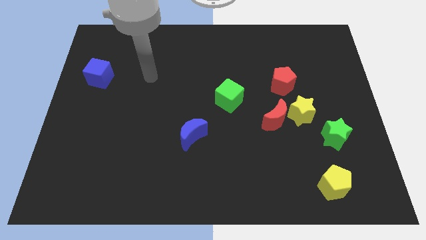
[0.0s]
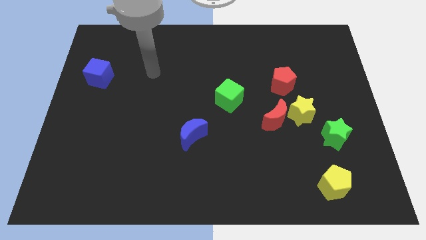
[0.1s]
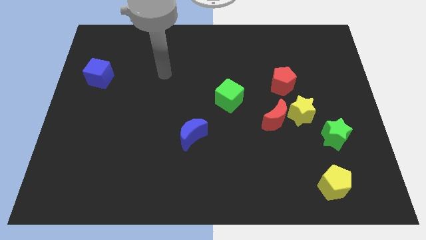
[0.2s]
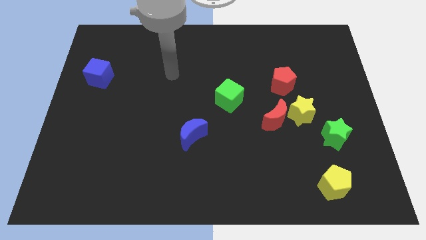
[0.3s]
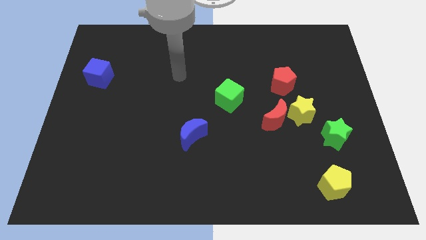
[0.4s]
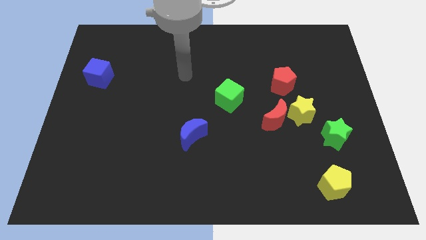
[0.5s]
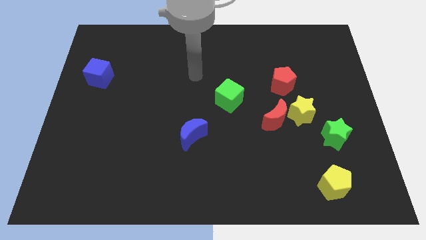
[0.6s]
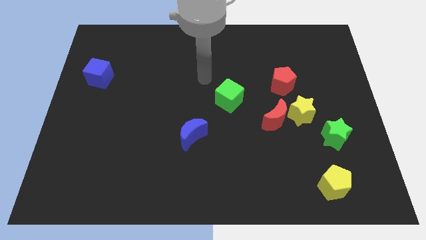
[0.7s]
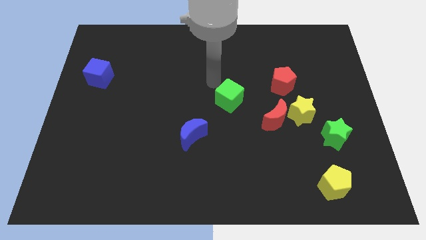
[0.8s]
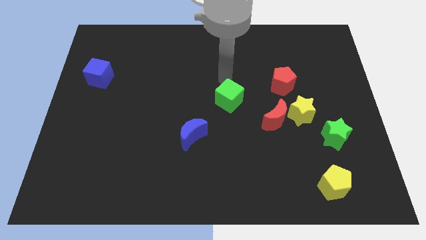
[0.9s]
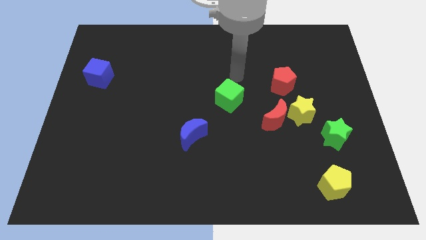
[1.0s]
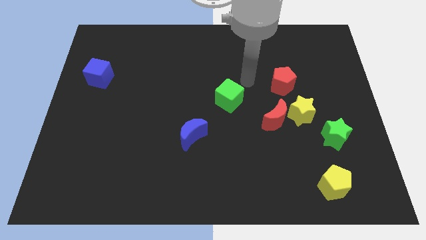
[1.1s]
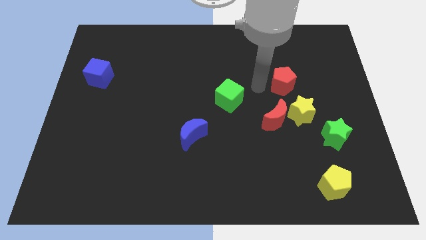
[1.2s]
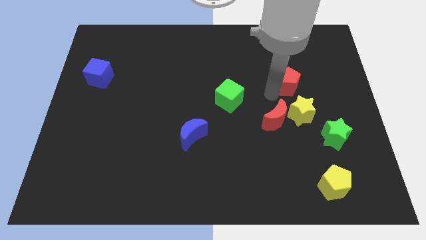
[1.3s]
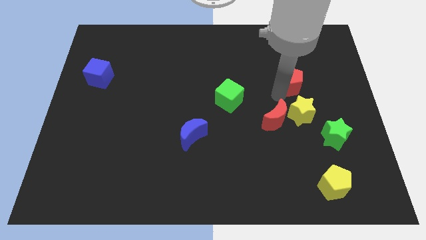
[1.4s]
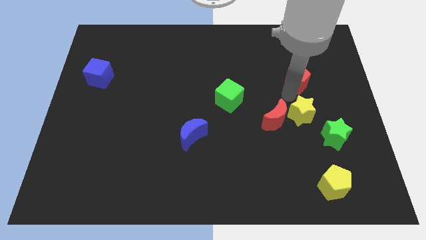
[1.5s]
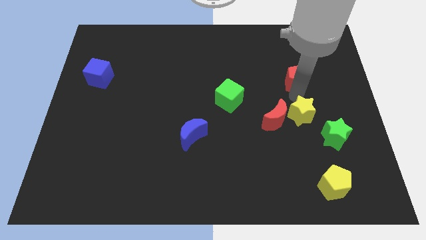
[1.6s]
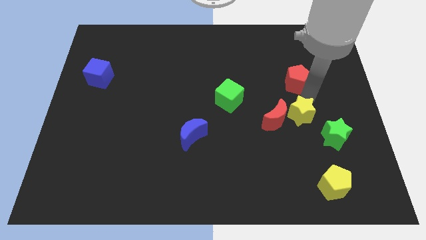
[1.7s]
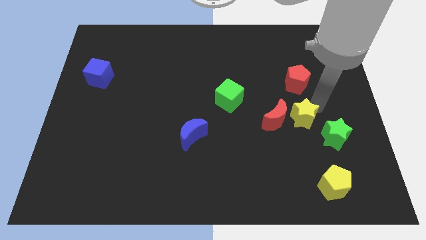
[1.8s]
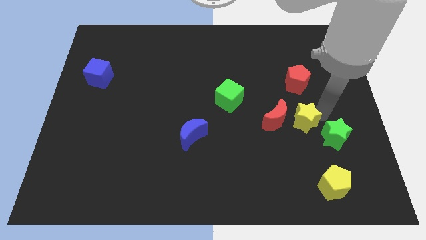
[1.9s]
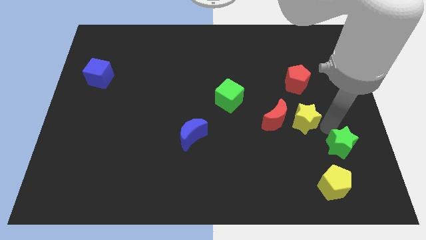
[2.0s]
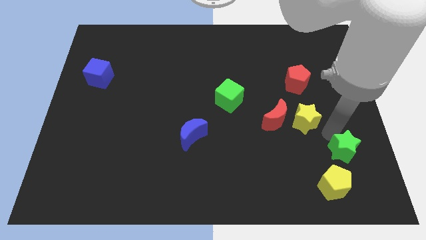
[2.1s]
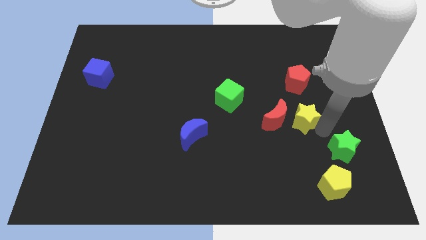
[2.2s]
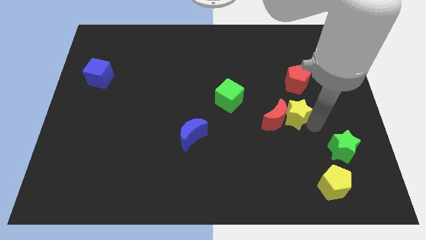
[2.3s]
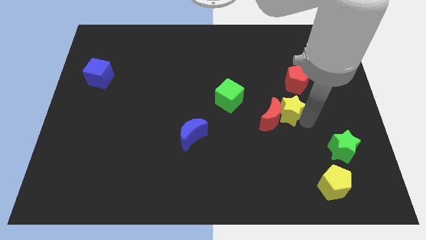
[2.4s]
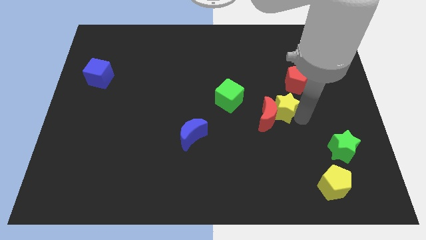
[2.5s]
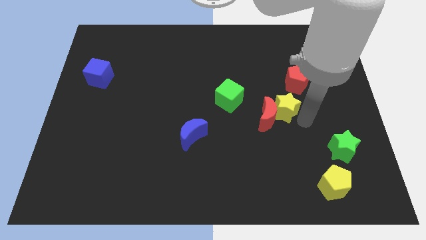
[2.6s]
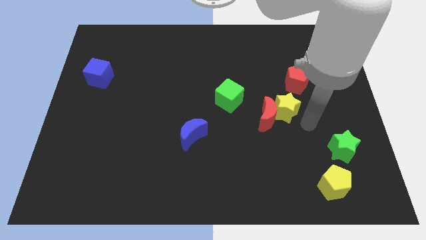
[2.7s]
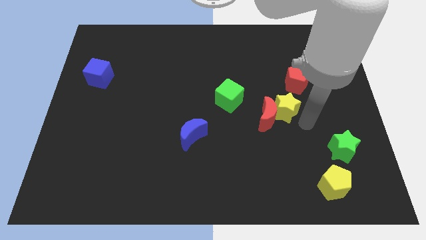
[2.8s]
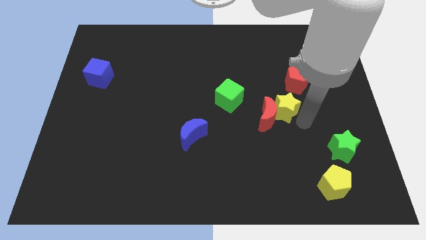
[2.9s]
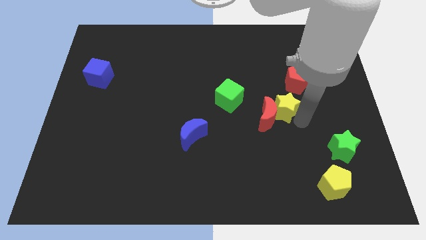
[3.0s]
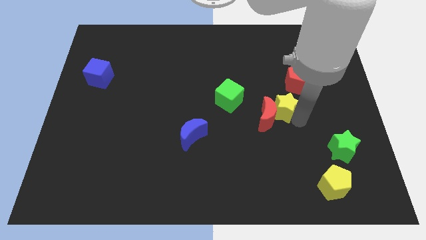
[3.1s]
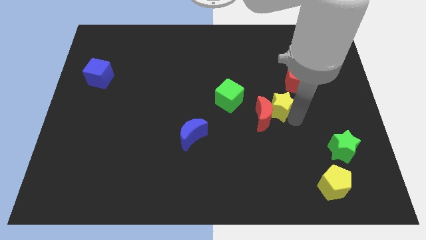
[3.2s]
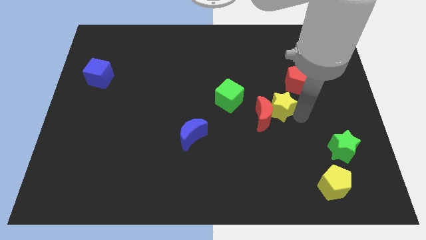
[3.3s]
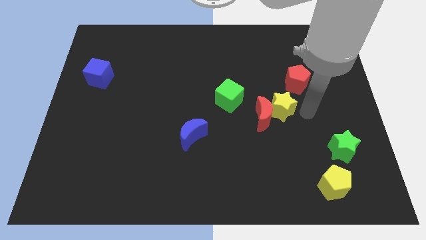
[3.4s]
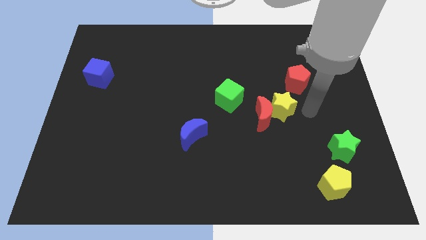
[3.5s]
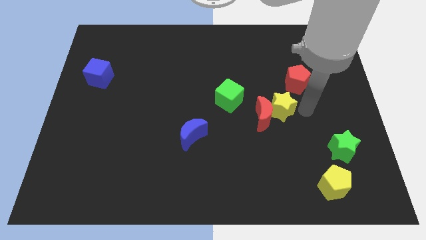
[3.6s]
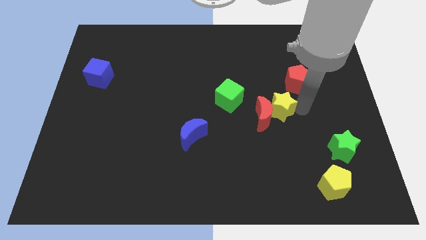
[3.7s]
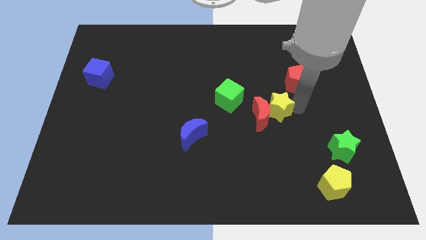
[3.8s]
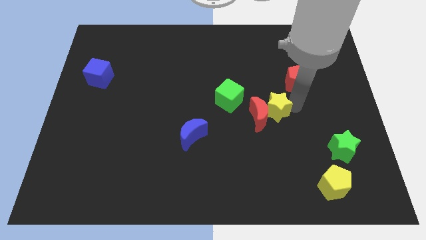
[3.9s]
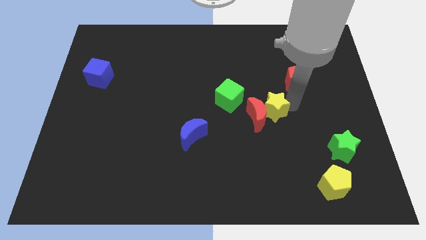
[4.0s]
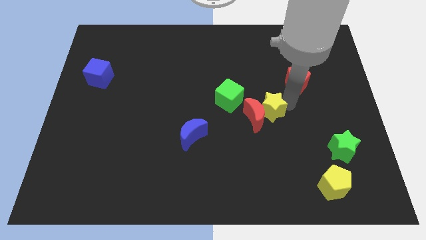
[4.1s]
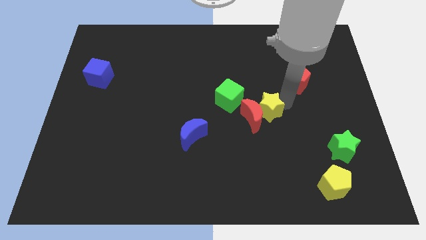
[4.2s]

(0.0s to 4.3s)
slightly slide the yellow star left

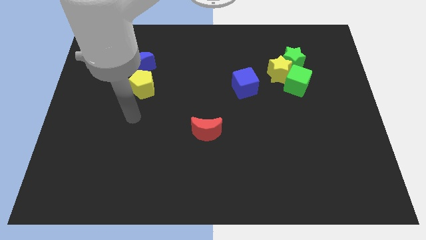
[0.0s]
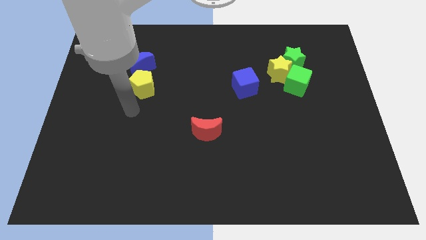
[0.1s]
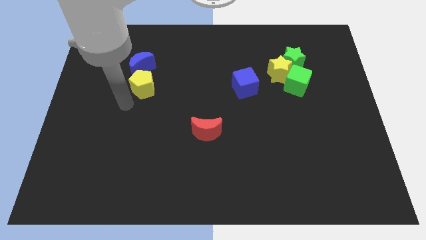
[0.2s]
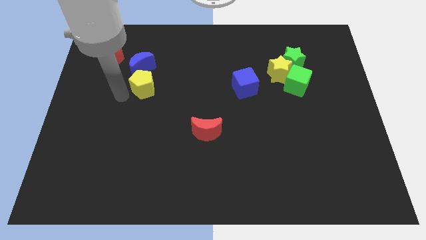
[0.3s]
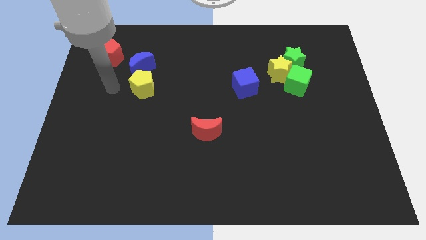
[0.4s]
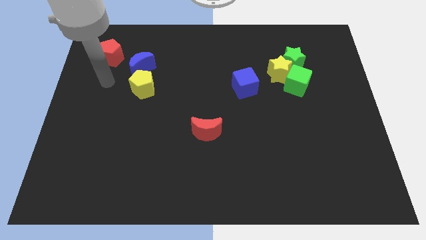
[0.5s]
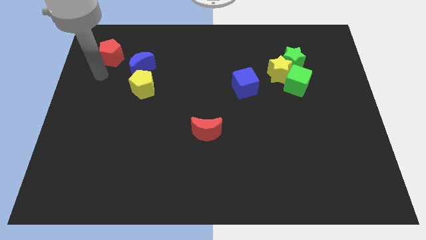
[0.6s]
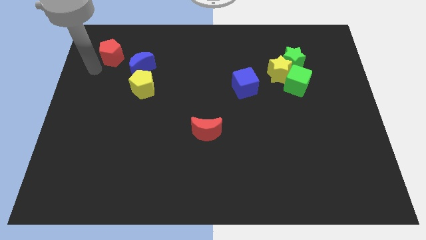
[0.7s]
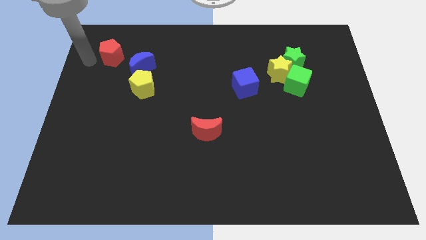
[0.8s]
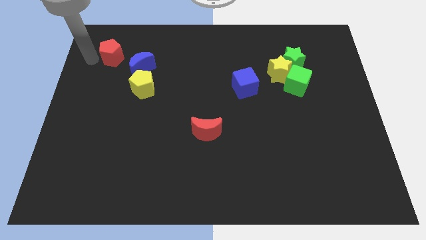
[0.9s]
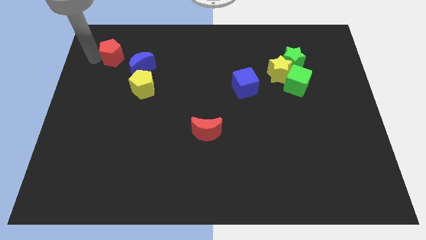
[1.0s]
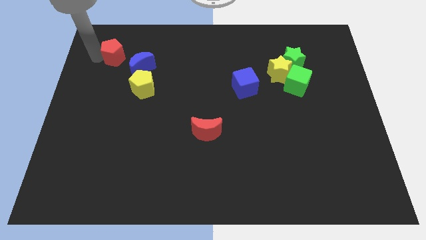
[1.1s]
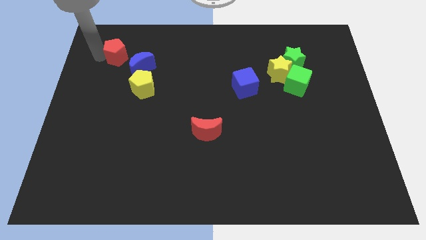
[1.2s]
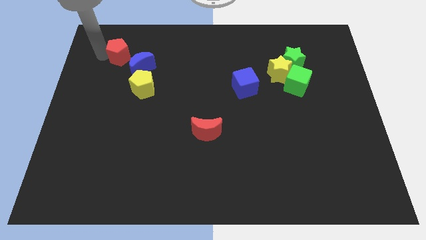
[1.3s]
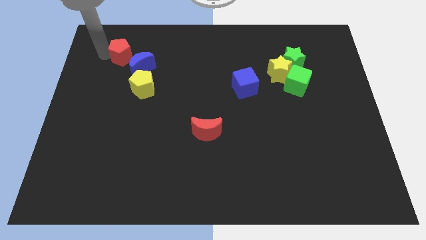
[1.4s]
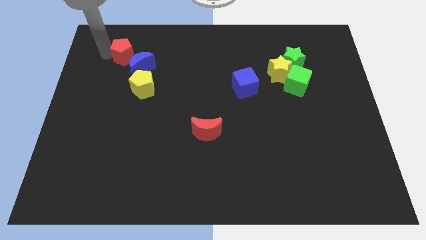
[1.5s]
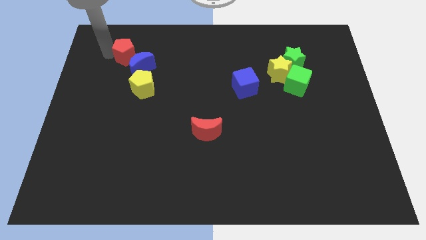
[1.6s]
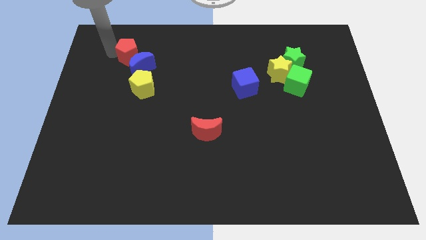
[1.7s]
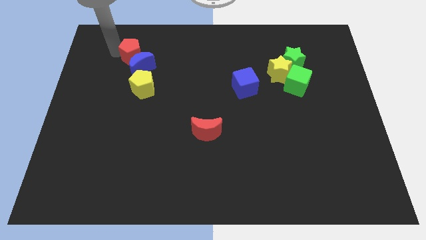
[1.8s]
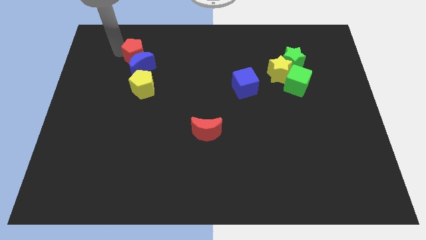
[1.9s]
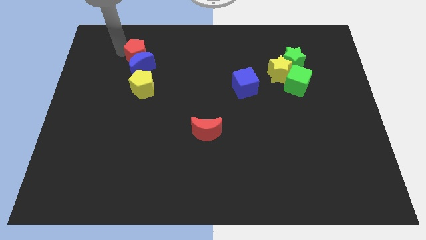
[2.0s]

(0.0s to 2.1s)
move the red pentagon a bit to the right

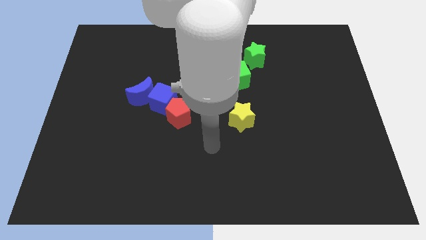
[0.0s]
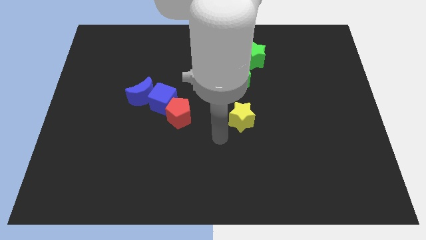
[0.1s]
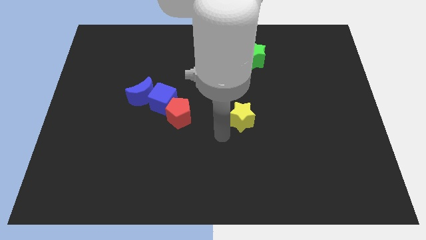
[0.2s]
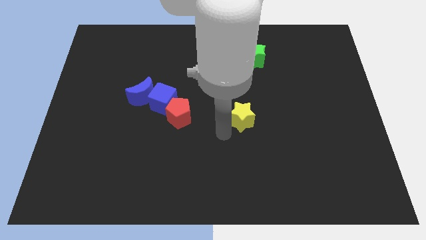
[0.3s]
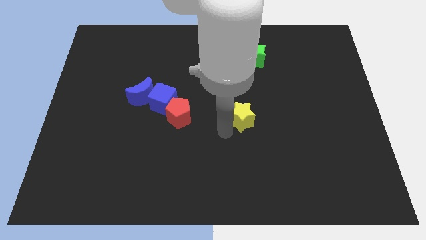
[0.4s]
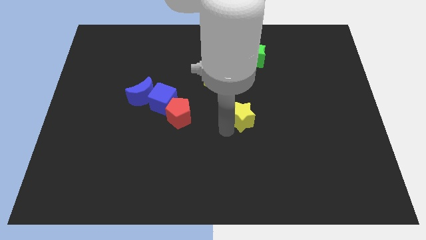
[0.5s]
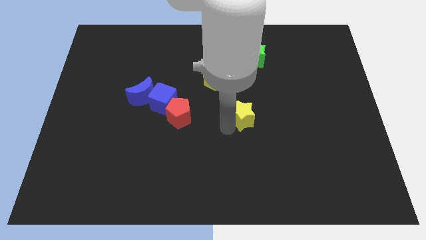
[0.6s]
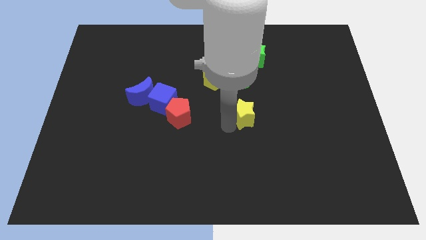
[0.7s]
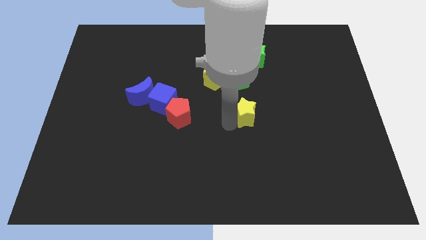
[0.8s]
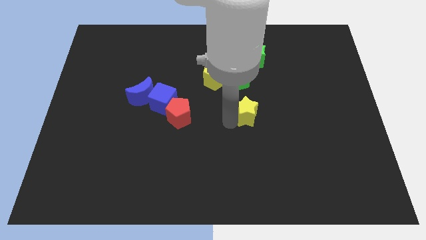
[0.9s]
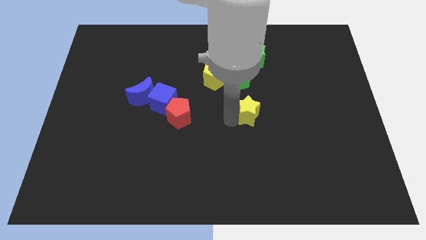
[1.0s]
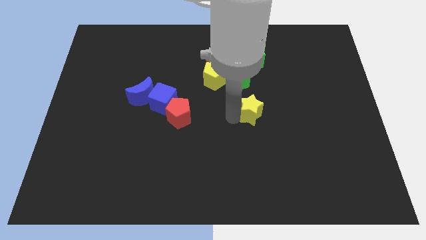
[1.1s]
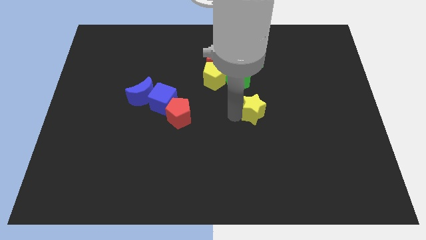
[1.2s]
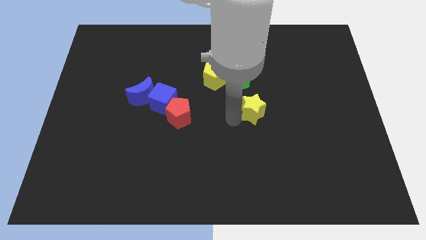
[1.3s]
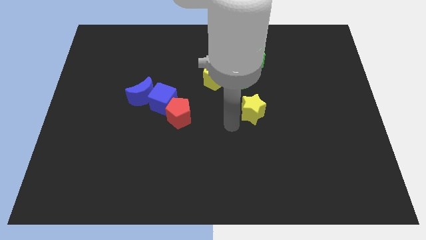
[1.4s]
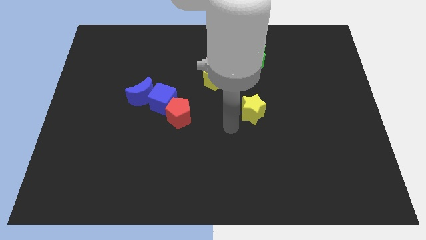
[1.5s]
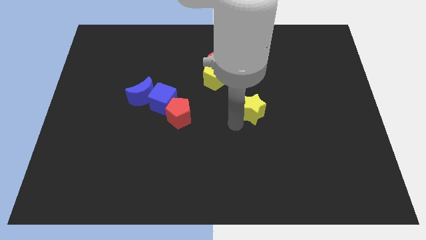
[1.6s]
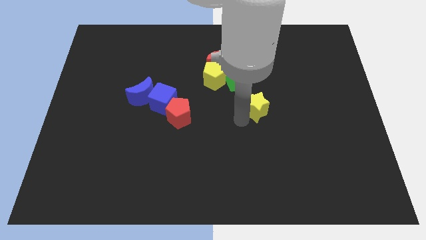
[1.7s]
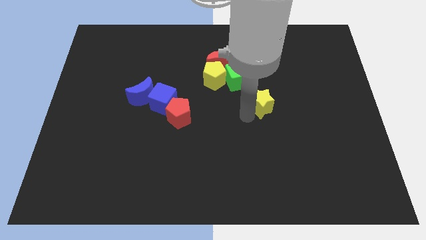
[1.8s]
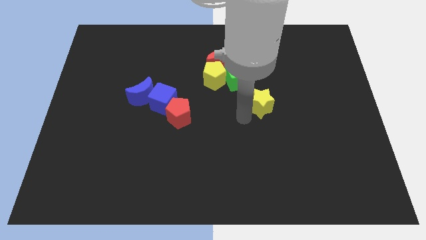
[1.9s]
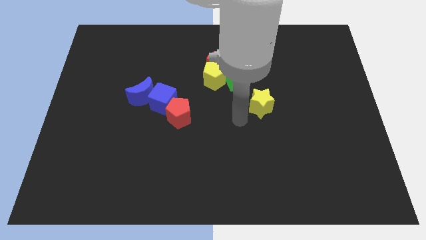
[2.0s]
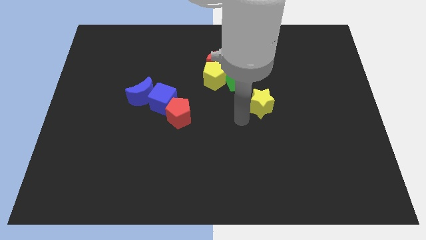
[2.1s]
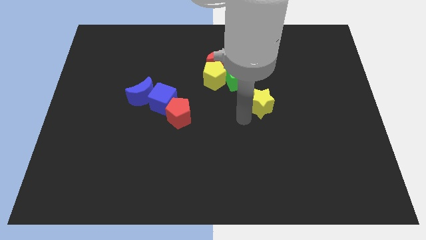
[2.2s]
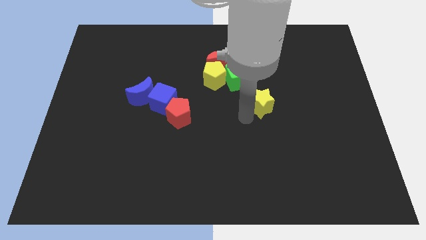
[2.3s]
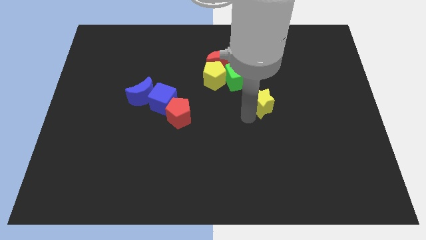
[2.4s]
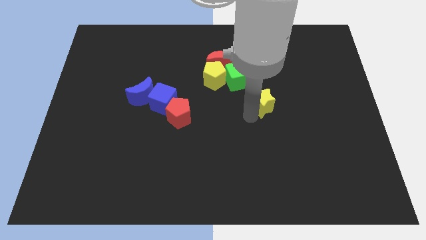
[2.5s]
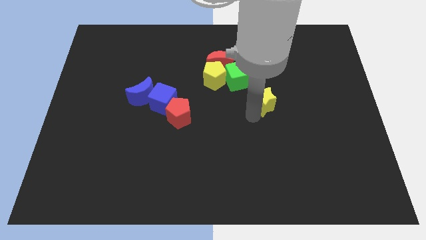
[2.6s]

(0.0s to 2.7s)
push the yellow star a little upwards and right diagonally
